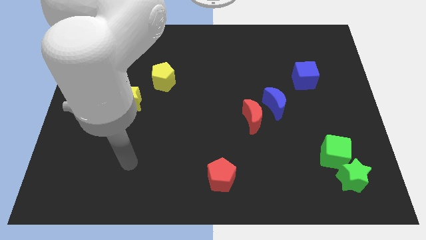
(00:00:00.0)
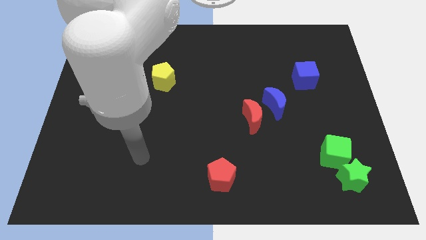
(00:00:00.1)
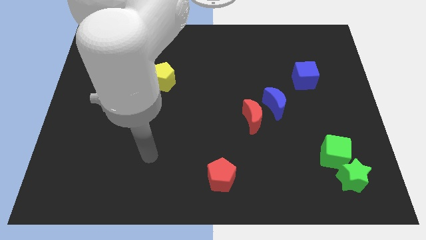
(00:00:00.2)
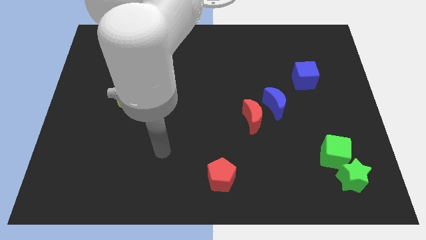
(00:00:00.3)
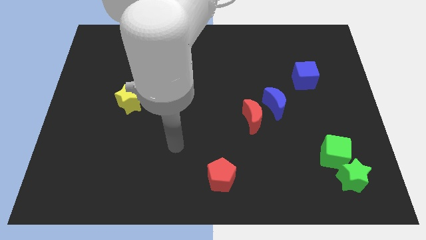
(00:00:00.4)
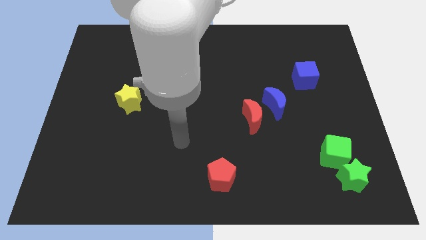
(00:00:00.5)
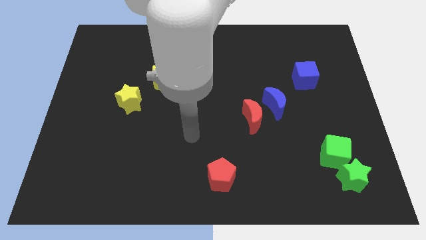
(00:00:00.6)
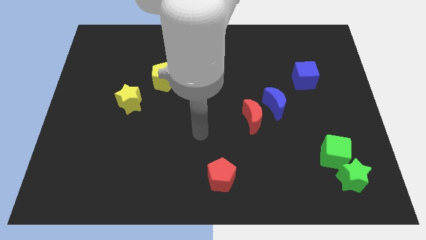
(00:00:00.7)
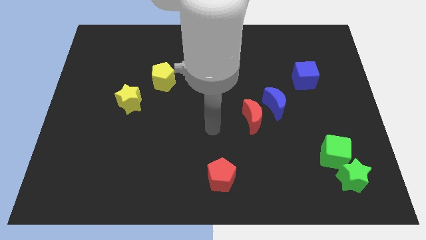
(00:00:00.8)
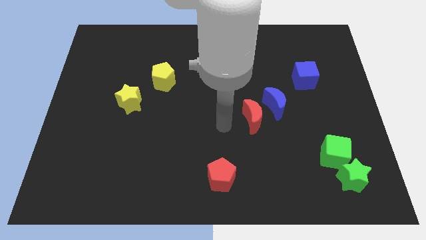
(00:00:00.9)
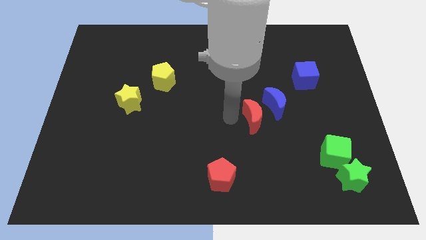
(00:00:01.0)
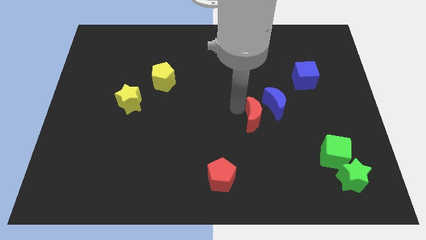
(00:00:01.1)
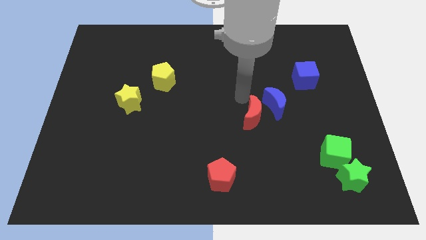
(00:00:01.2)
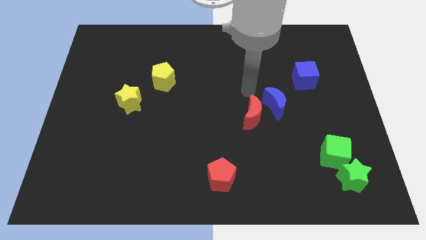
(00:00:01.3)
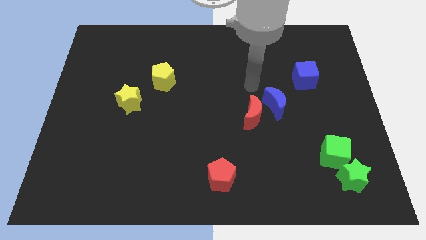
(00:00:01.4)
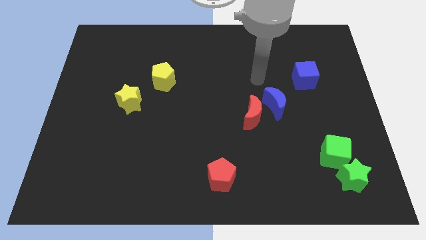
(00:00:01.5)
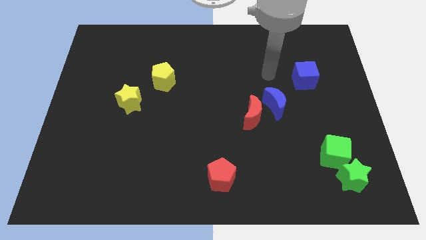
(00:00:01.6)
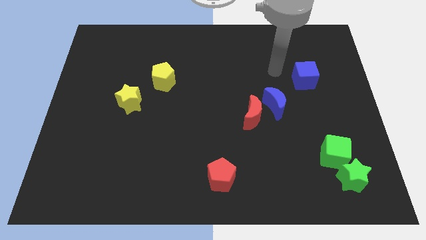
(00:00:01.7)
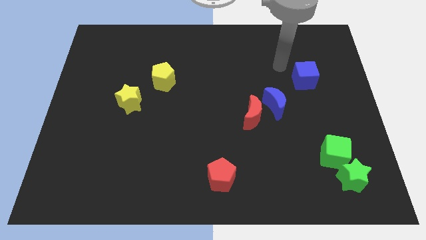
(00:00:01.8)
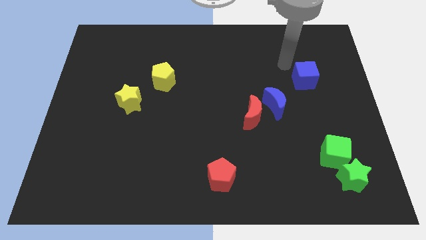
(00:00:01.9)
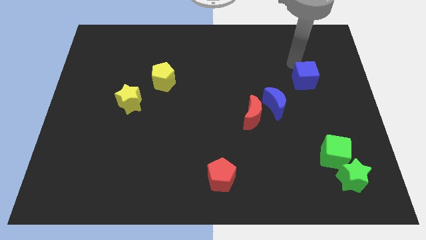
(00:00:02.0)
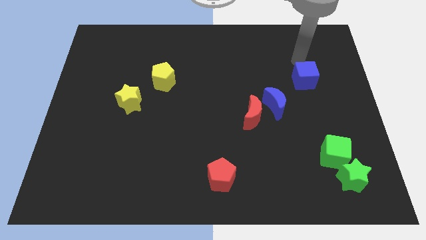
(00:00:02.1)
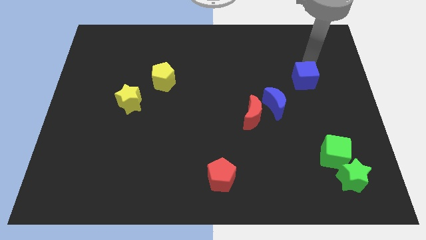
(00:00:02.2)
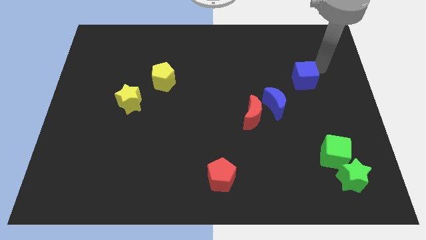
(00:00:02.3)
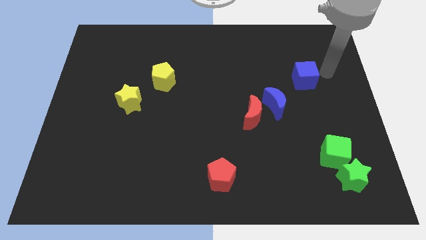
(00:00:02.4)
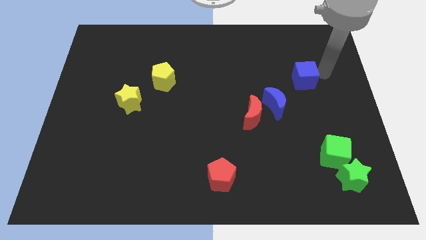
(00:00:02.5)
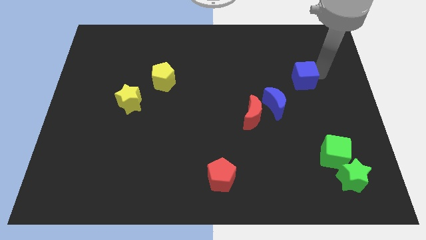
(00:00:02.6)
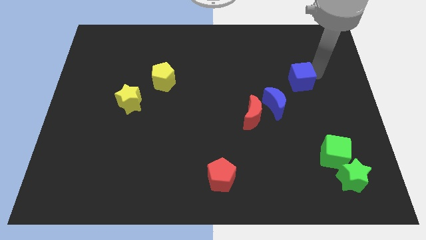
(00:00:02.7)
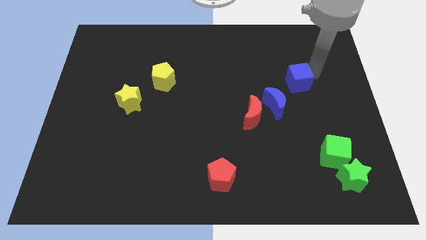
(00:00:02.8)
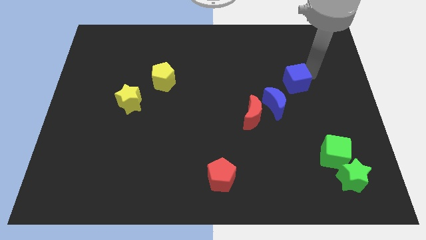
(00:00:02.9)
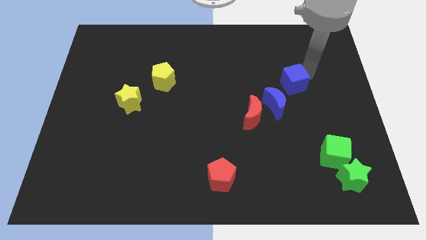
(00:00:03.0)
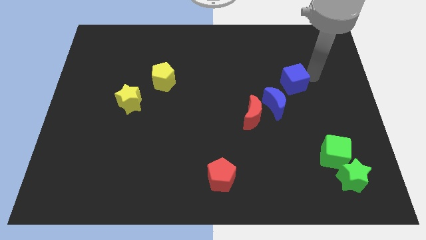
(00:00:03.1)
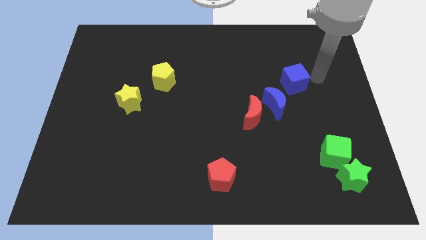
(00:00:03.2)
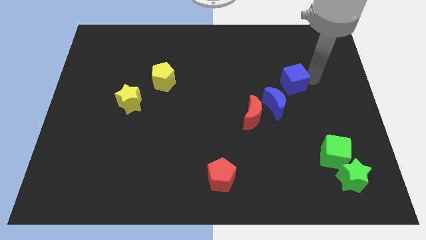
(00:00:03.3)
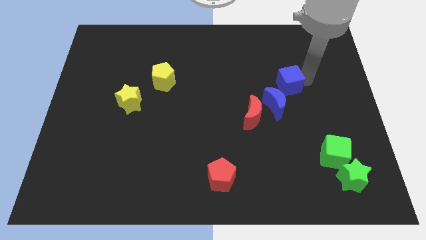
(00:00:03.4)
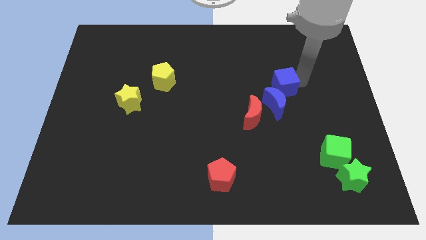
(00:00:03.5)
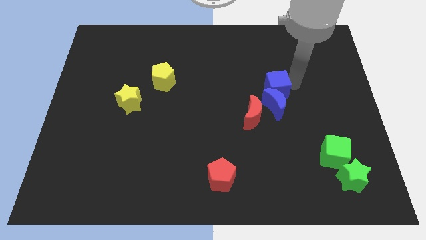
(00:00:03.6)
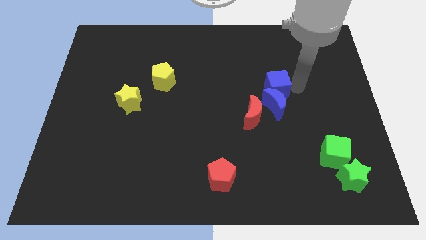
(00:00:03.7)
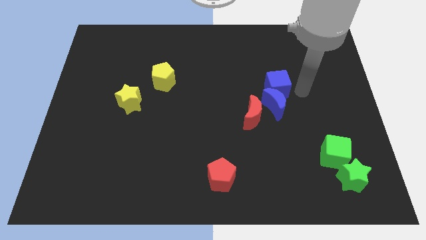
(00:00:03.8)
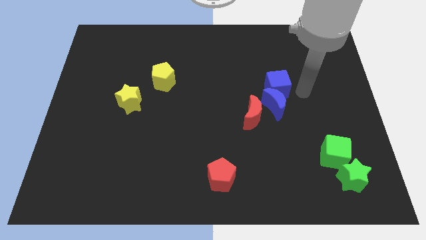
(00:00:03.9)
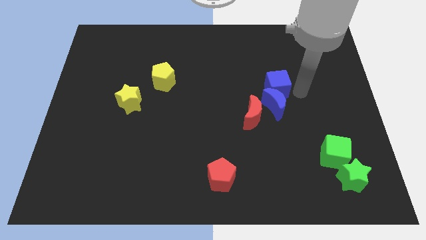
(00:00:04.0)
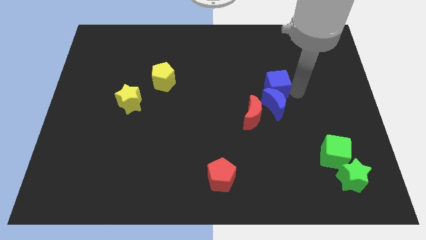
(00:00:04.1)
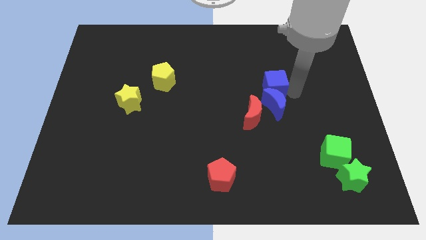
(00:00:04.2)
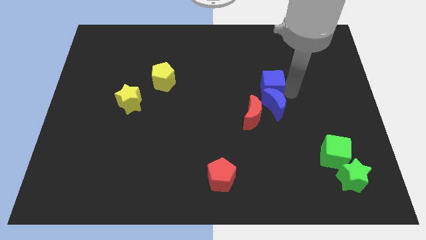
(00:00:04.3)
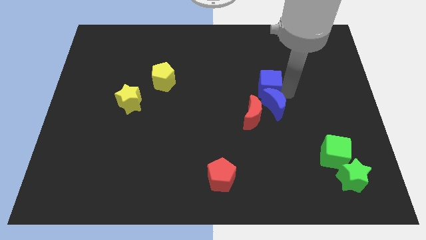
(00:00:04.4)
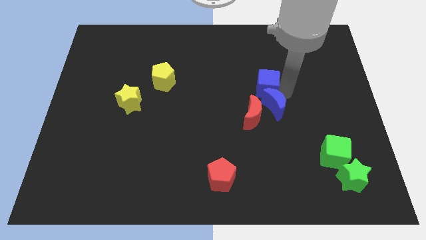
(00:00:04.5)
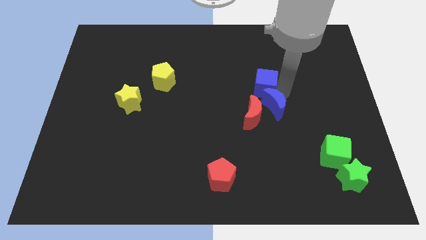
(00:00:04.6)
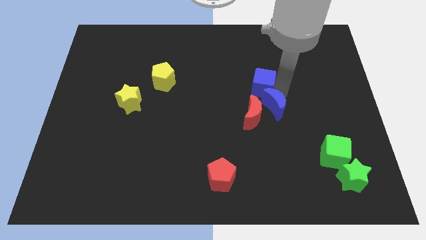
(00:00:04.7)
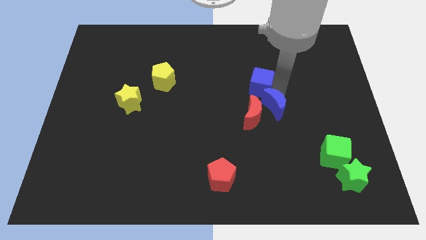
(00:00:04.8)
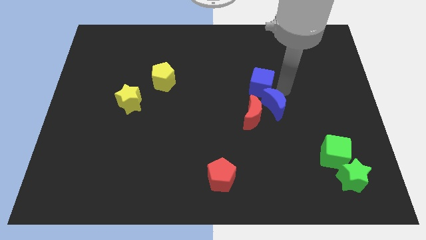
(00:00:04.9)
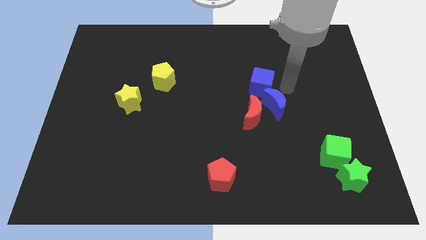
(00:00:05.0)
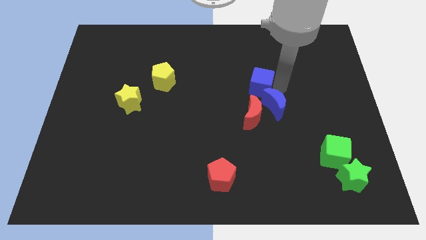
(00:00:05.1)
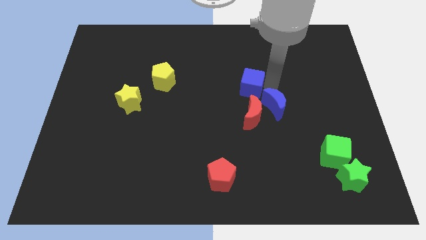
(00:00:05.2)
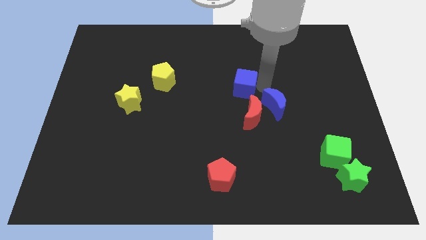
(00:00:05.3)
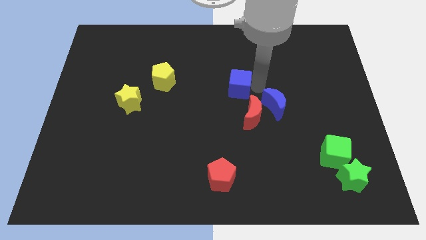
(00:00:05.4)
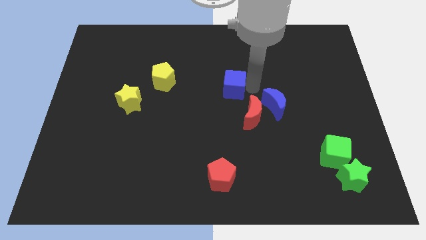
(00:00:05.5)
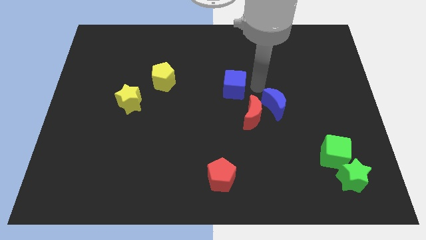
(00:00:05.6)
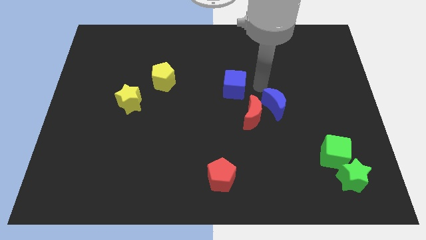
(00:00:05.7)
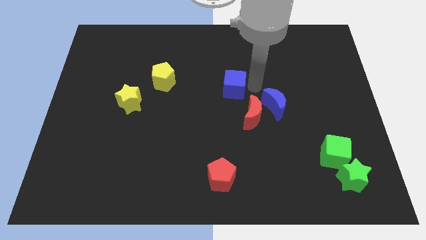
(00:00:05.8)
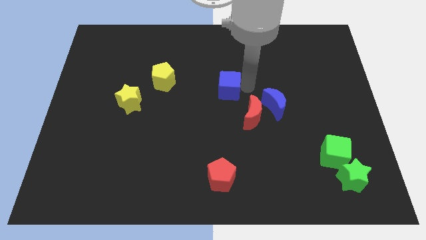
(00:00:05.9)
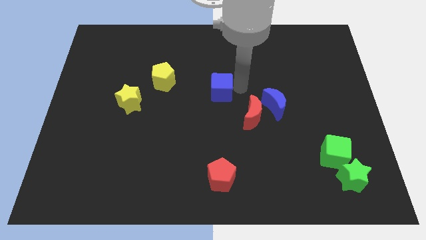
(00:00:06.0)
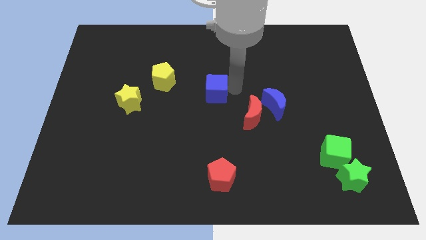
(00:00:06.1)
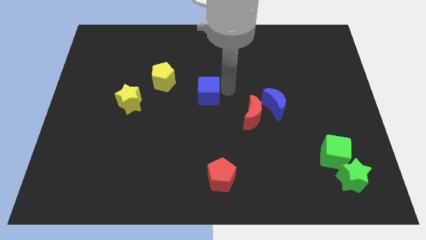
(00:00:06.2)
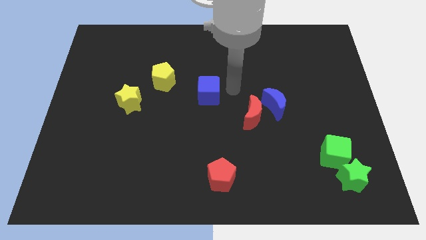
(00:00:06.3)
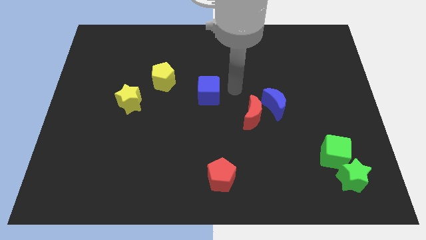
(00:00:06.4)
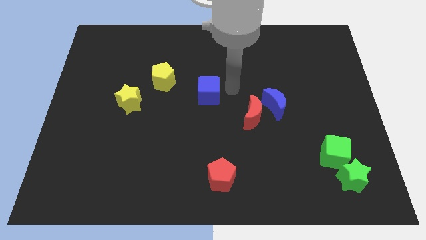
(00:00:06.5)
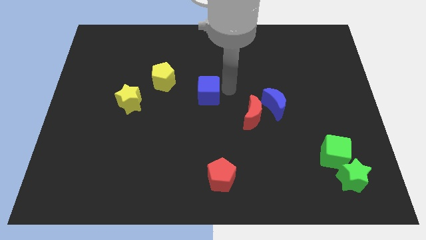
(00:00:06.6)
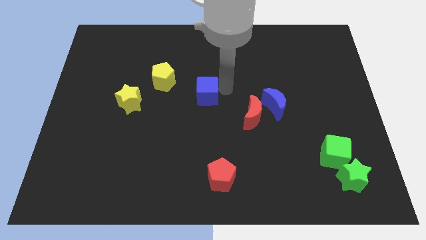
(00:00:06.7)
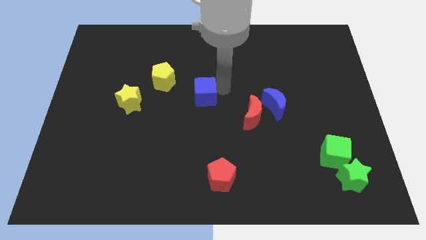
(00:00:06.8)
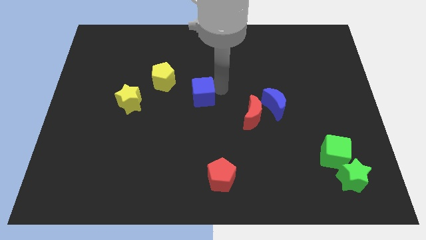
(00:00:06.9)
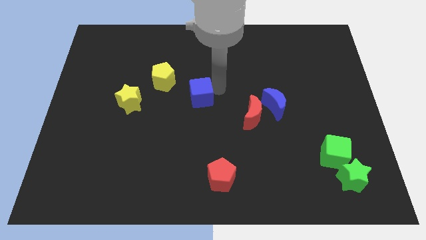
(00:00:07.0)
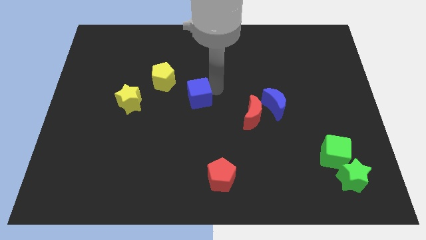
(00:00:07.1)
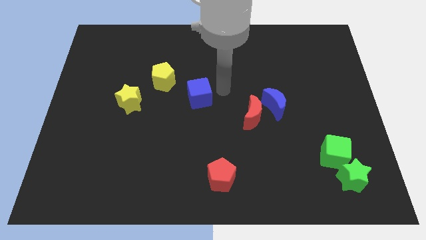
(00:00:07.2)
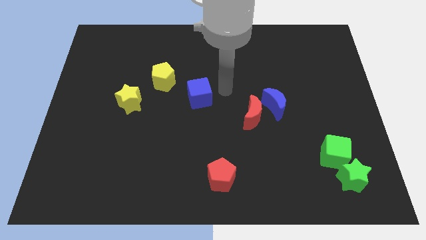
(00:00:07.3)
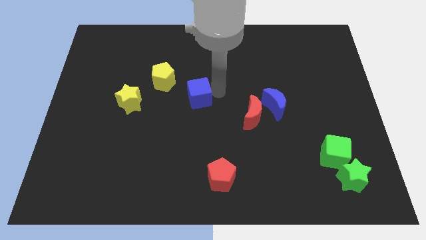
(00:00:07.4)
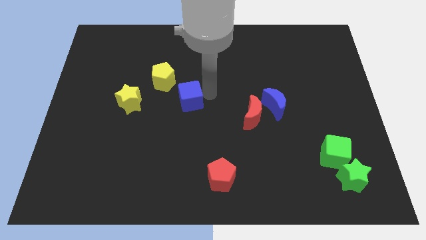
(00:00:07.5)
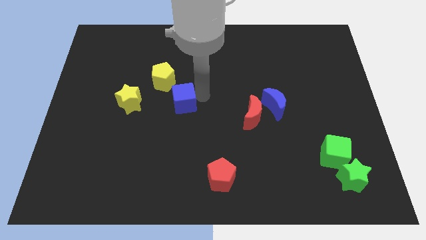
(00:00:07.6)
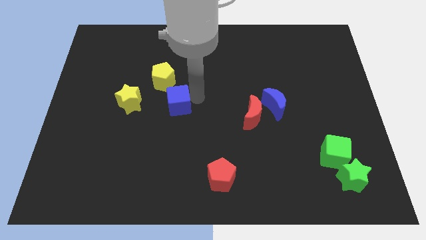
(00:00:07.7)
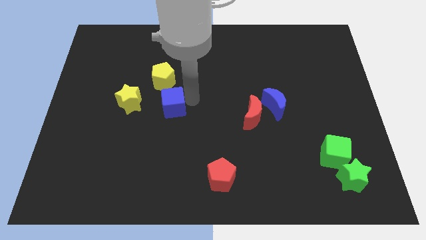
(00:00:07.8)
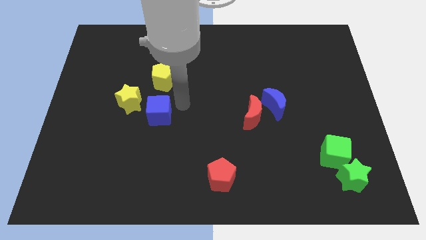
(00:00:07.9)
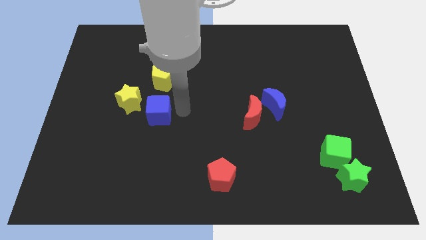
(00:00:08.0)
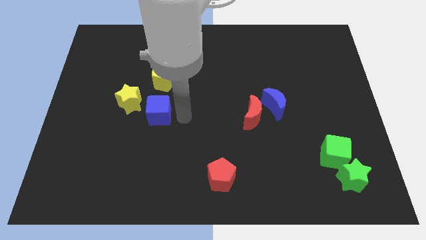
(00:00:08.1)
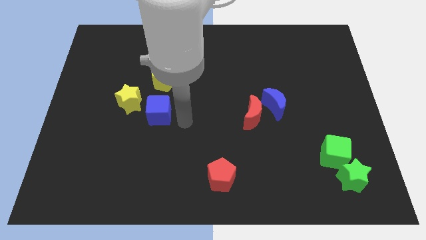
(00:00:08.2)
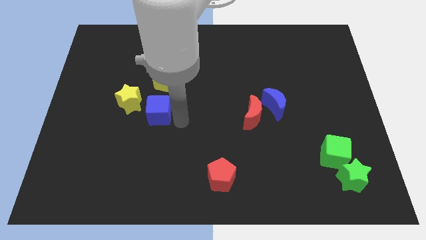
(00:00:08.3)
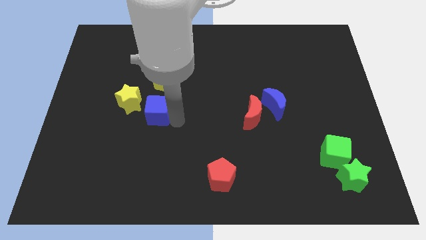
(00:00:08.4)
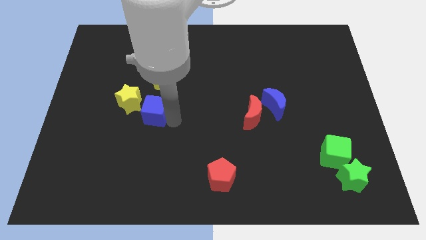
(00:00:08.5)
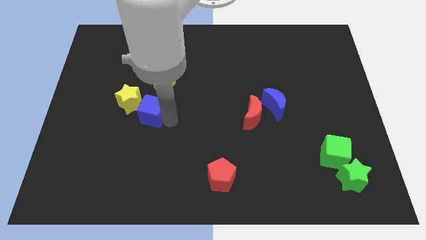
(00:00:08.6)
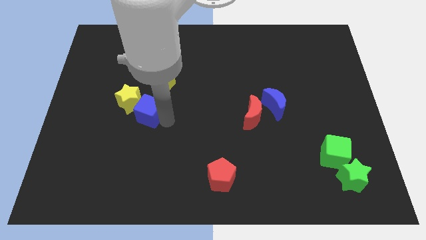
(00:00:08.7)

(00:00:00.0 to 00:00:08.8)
slide the blue cube next to the yellow star
